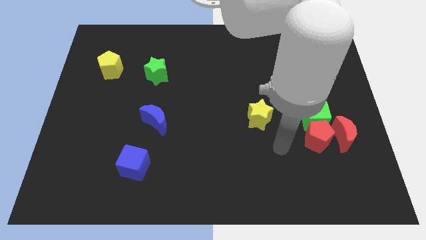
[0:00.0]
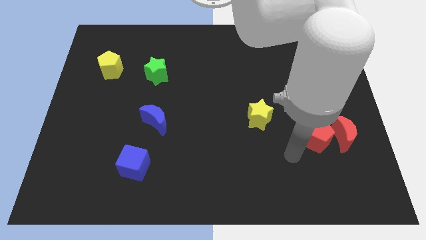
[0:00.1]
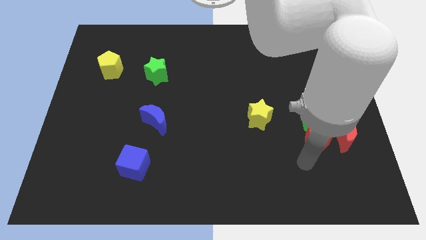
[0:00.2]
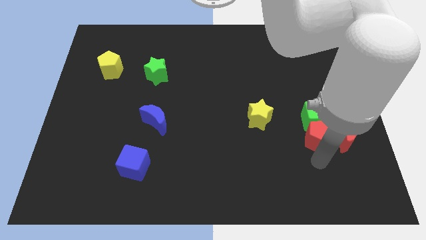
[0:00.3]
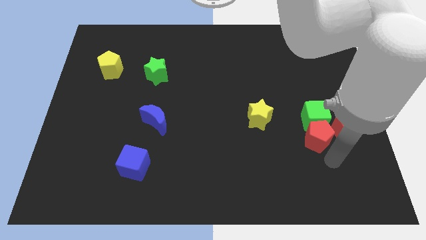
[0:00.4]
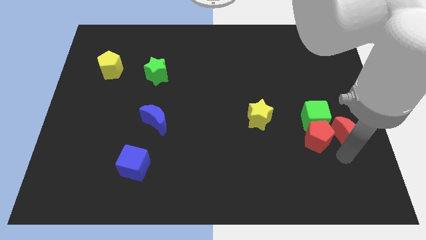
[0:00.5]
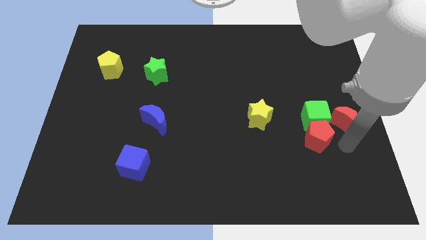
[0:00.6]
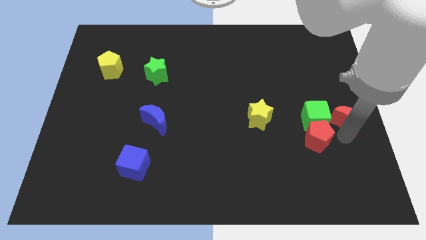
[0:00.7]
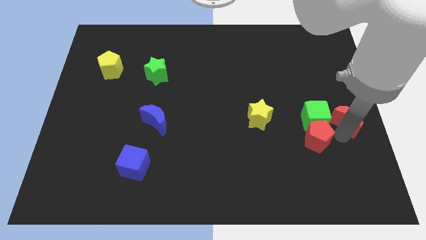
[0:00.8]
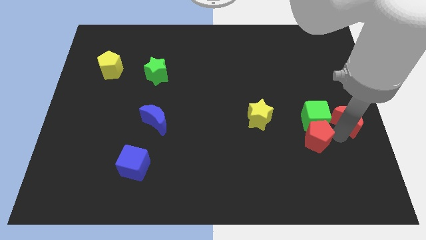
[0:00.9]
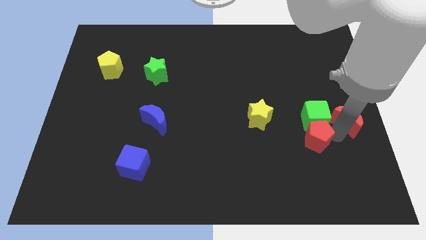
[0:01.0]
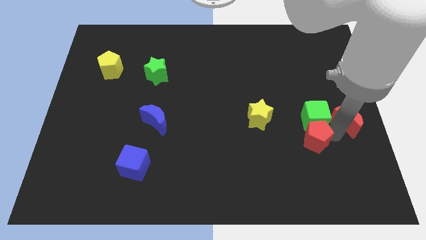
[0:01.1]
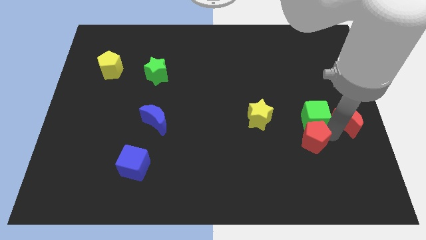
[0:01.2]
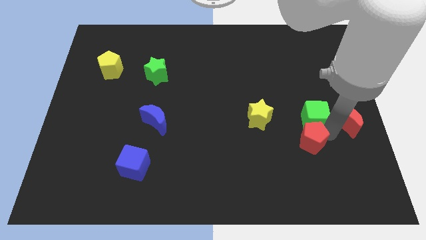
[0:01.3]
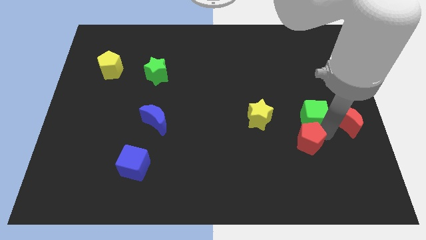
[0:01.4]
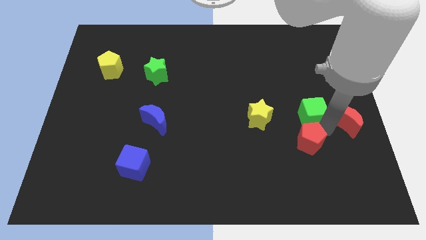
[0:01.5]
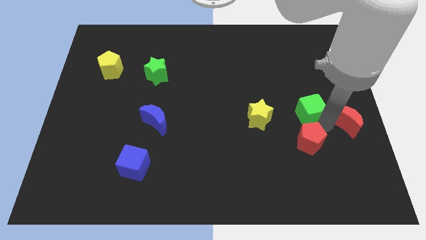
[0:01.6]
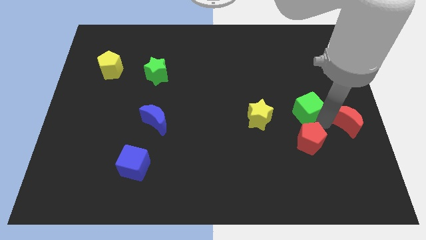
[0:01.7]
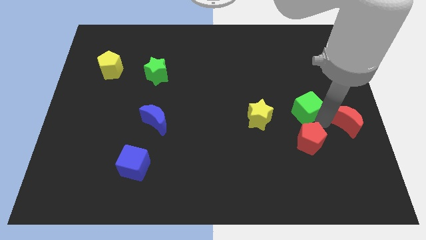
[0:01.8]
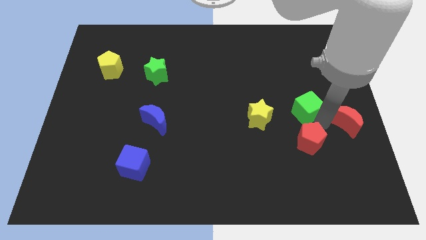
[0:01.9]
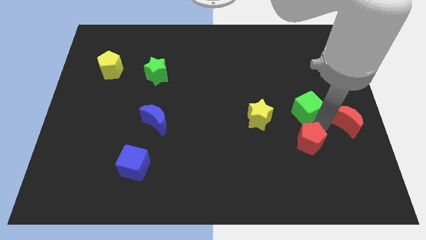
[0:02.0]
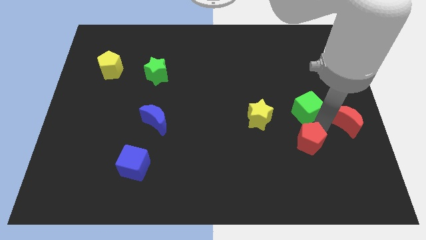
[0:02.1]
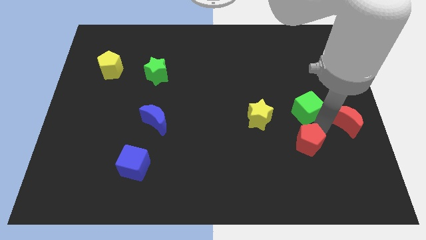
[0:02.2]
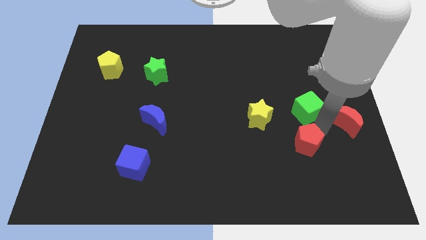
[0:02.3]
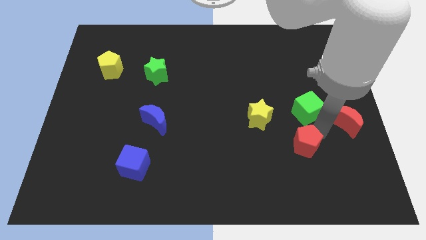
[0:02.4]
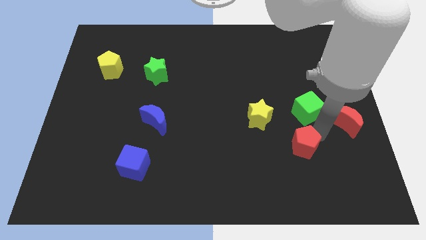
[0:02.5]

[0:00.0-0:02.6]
pull the red pentagon apart from the green cube and red moon

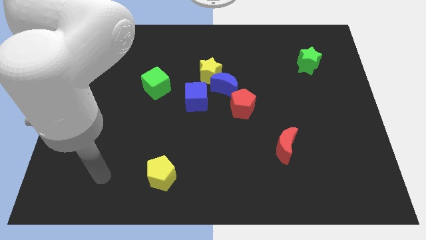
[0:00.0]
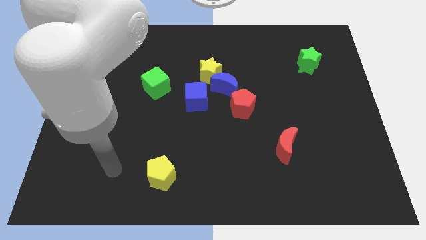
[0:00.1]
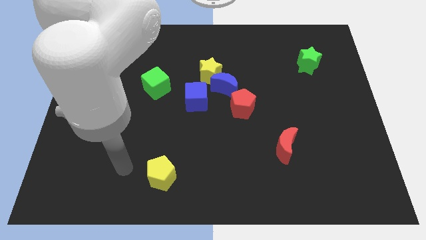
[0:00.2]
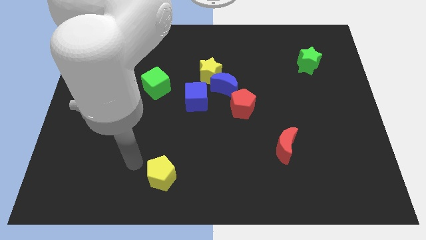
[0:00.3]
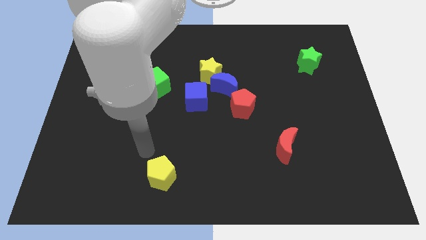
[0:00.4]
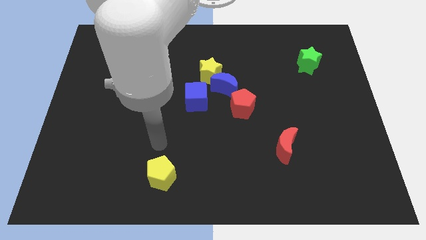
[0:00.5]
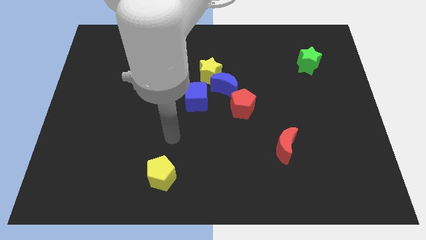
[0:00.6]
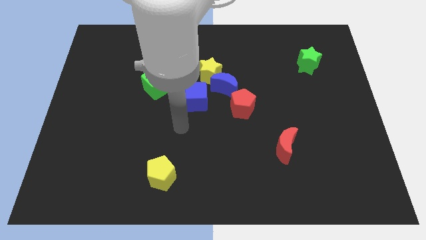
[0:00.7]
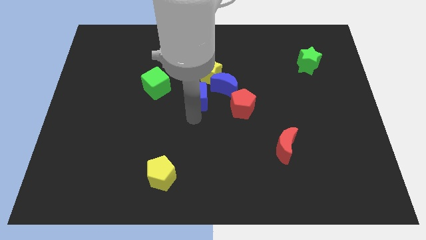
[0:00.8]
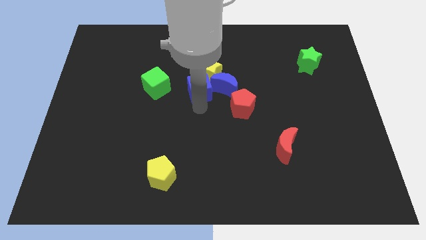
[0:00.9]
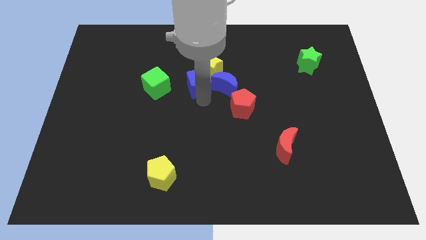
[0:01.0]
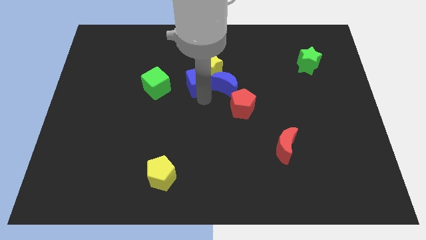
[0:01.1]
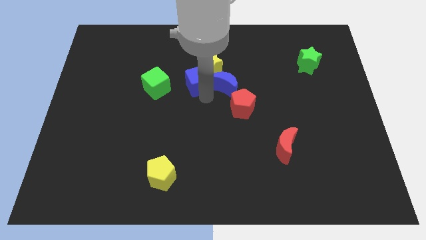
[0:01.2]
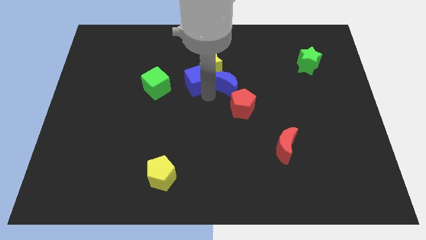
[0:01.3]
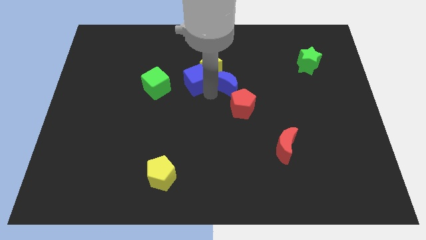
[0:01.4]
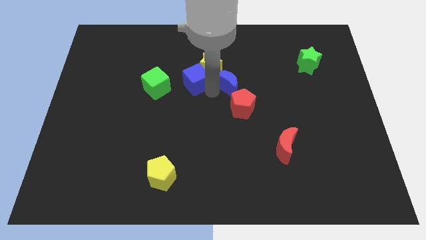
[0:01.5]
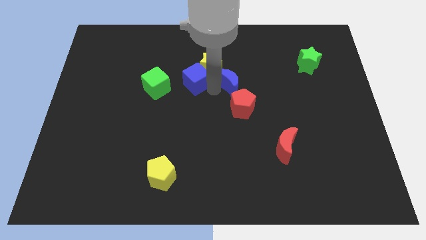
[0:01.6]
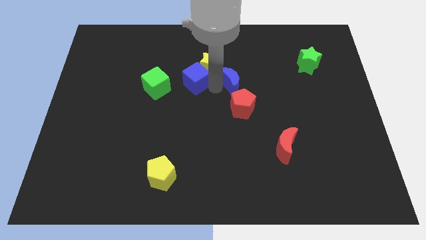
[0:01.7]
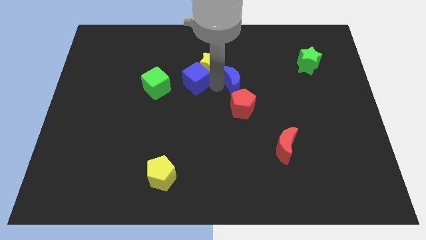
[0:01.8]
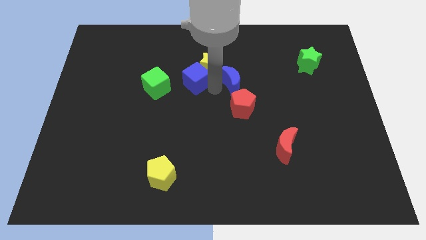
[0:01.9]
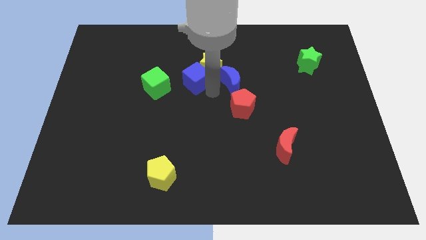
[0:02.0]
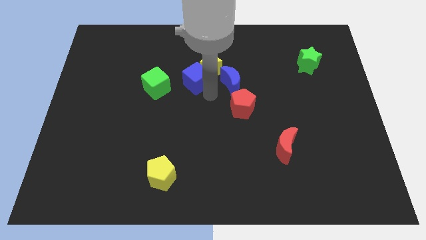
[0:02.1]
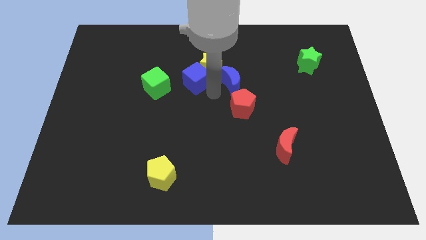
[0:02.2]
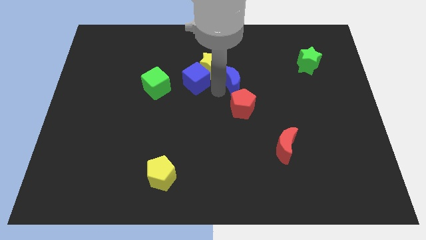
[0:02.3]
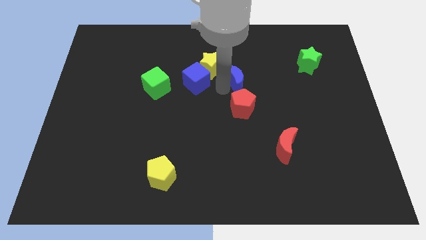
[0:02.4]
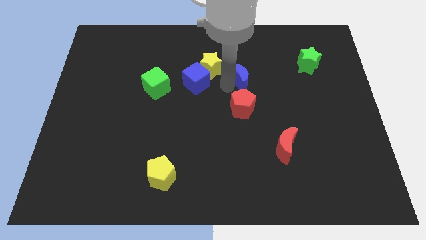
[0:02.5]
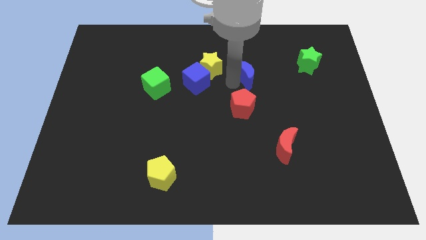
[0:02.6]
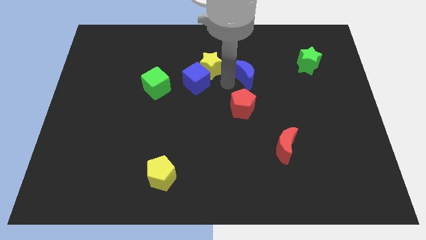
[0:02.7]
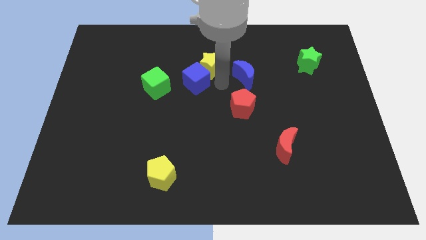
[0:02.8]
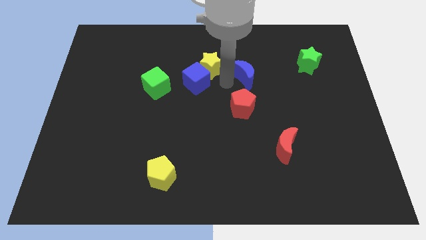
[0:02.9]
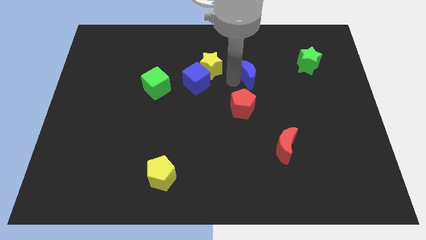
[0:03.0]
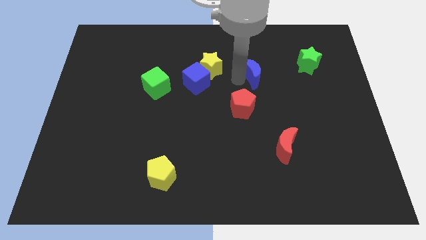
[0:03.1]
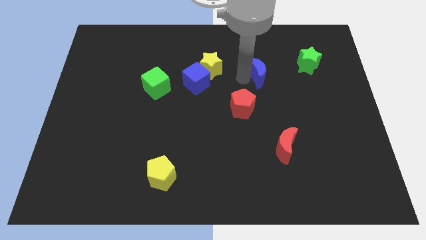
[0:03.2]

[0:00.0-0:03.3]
pull the blue moon apart from the group

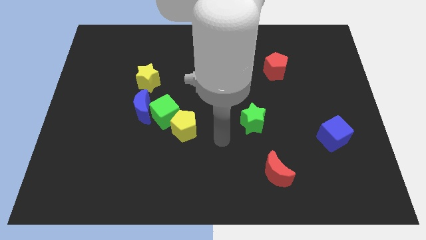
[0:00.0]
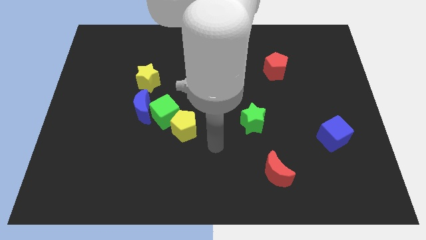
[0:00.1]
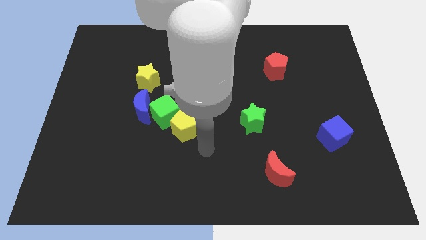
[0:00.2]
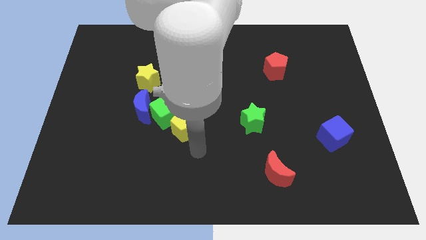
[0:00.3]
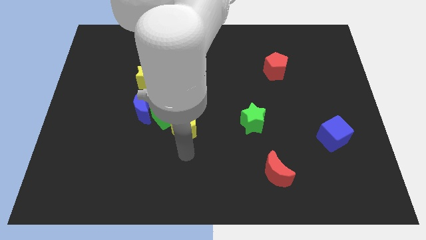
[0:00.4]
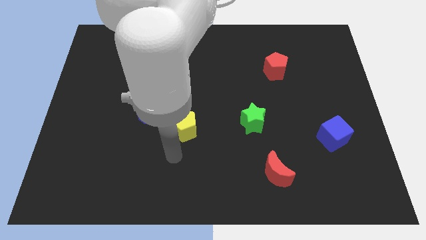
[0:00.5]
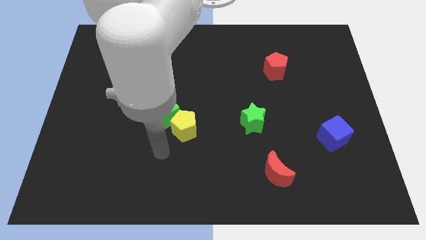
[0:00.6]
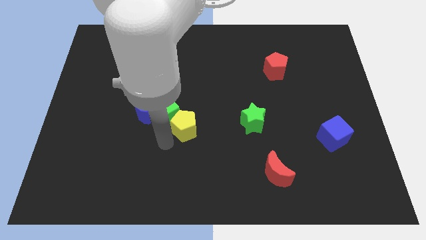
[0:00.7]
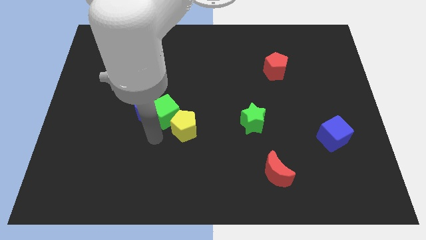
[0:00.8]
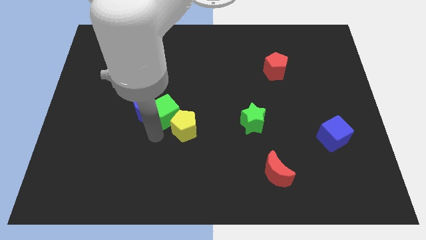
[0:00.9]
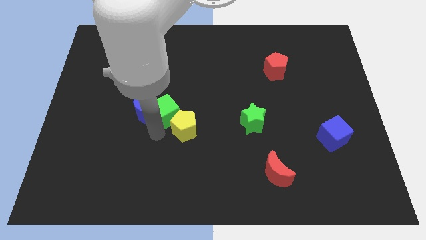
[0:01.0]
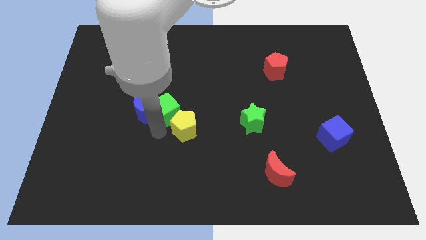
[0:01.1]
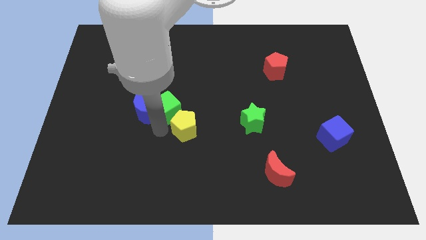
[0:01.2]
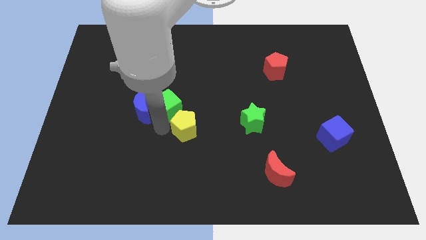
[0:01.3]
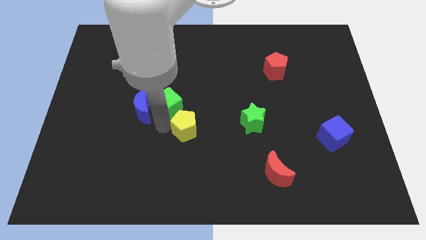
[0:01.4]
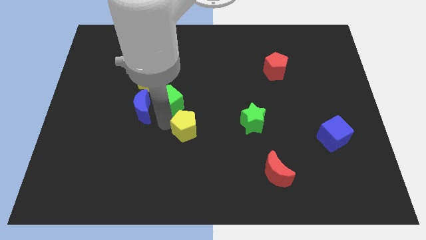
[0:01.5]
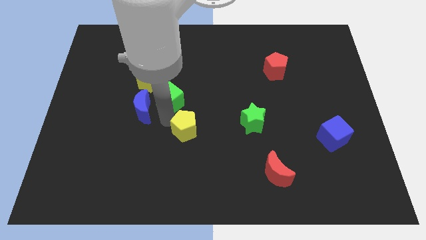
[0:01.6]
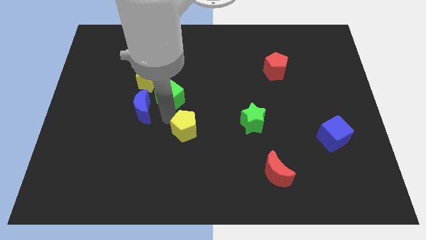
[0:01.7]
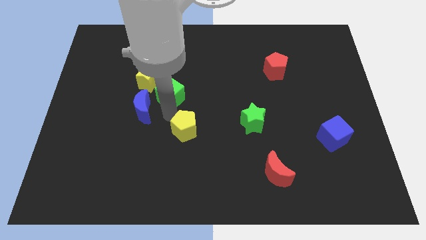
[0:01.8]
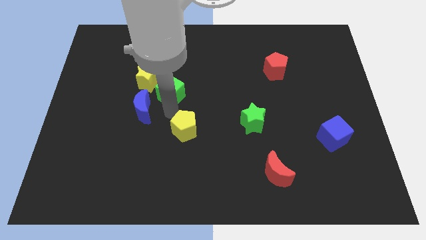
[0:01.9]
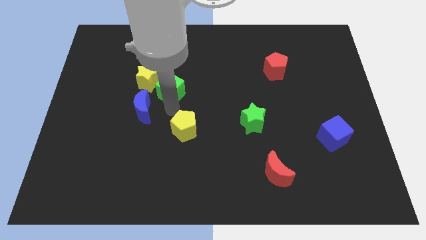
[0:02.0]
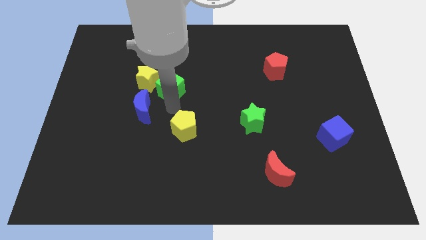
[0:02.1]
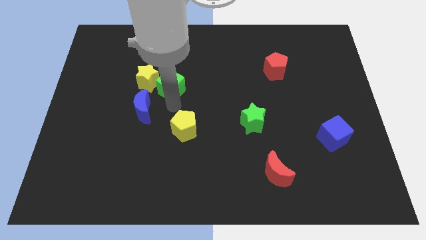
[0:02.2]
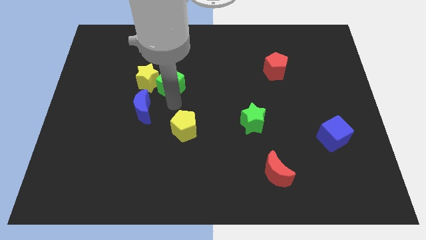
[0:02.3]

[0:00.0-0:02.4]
move the green cube away from the blue moon and yellow pentagon

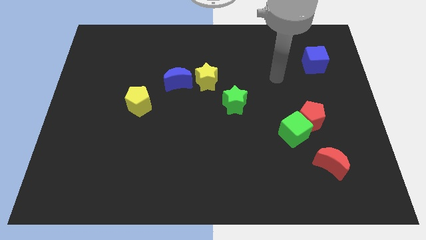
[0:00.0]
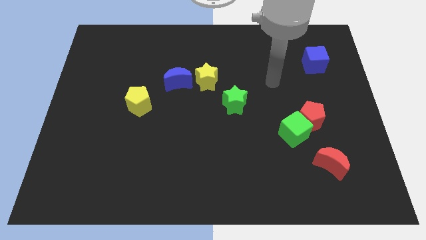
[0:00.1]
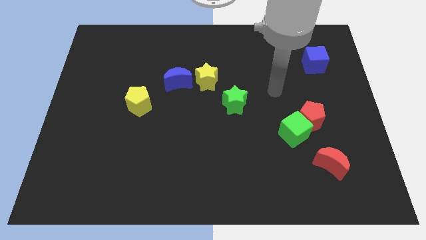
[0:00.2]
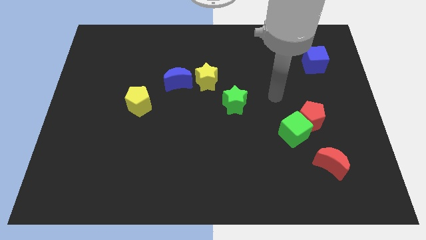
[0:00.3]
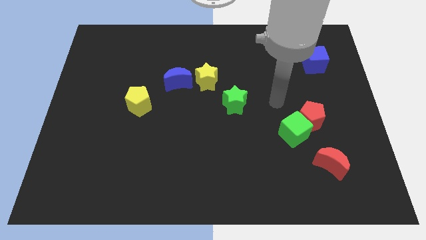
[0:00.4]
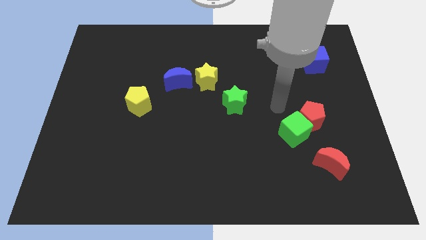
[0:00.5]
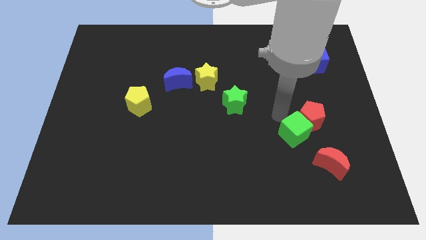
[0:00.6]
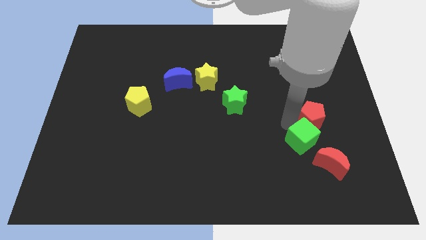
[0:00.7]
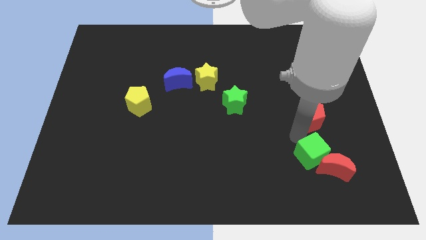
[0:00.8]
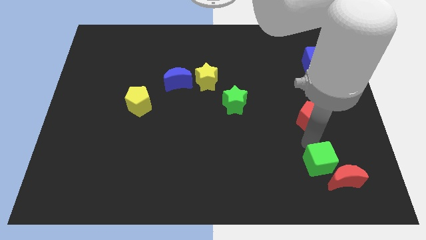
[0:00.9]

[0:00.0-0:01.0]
move the red pentagon away from the green cube
